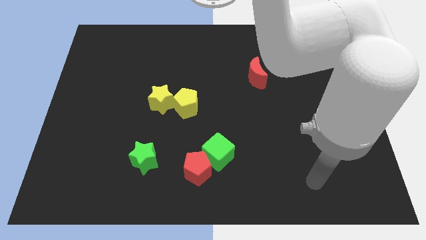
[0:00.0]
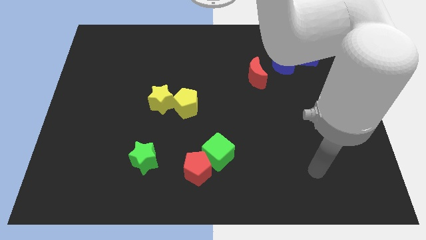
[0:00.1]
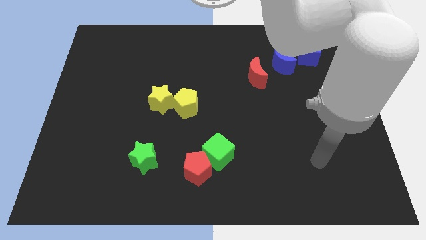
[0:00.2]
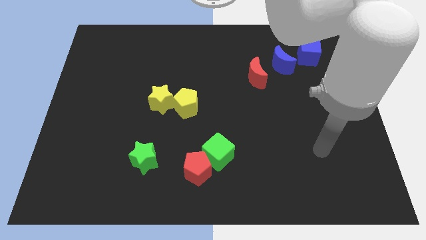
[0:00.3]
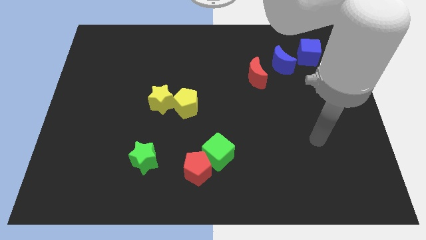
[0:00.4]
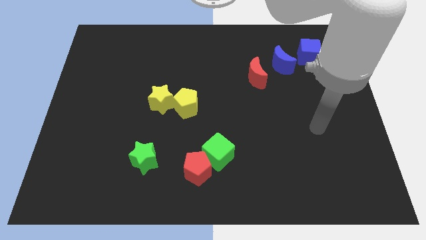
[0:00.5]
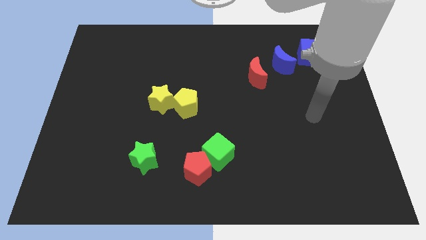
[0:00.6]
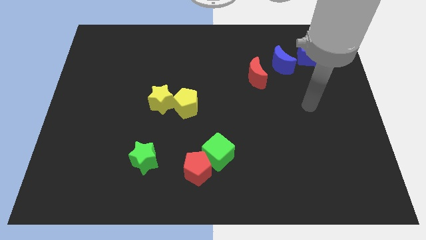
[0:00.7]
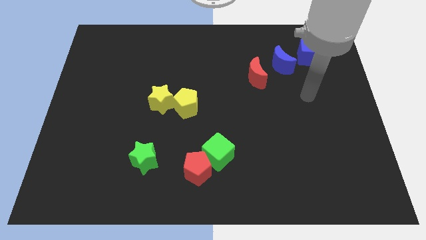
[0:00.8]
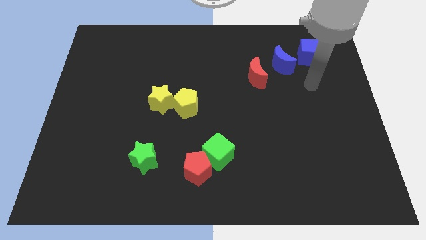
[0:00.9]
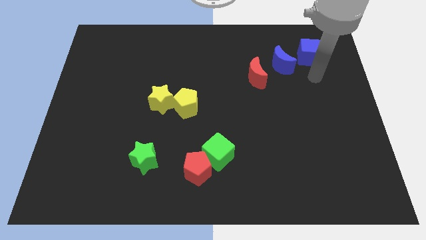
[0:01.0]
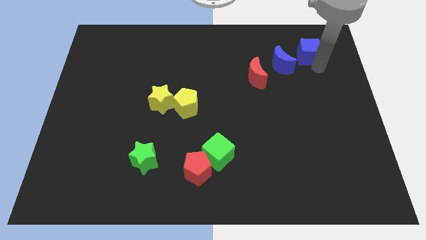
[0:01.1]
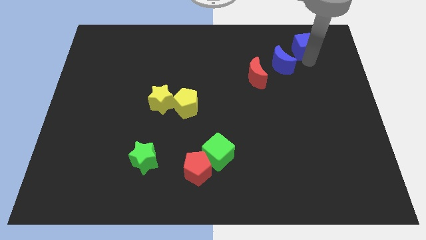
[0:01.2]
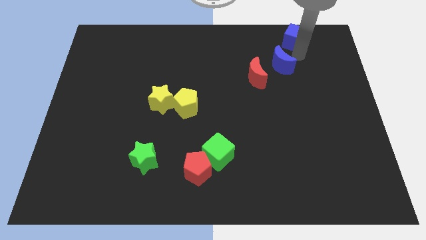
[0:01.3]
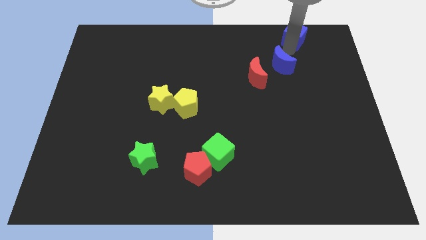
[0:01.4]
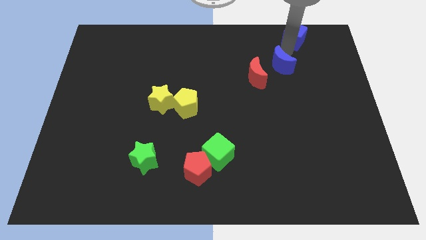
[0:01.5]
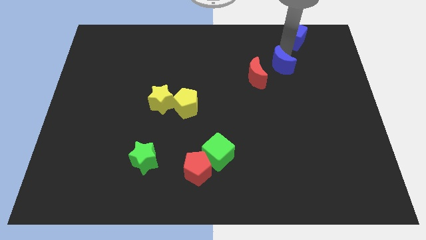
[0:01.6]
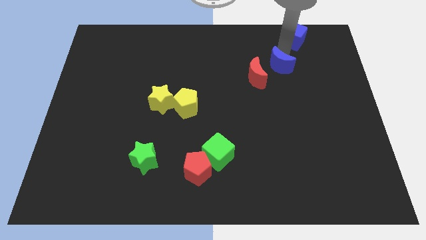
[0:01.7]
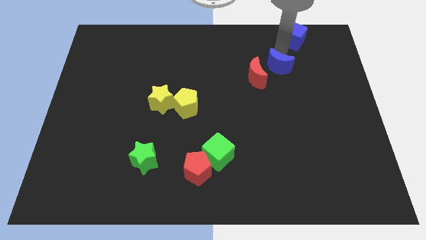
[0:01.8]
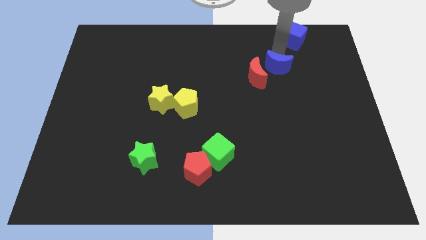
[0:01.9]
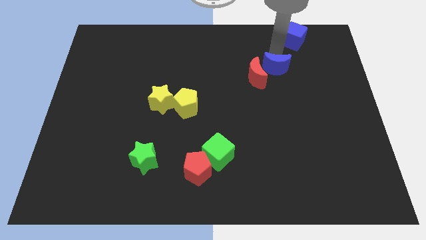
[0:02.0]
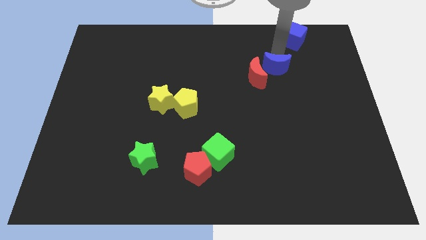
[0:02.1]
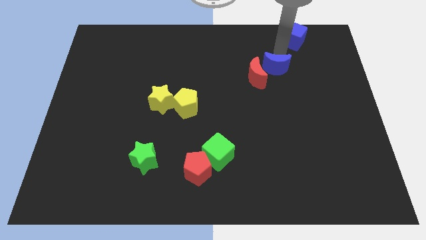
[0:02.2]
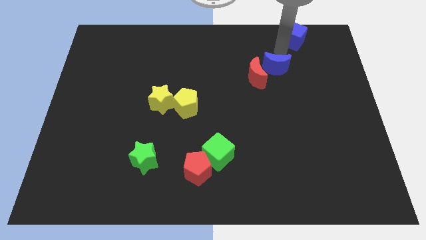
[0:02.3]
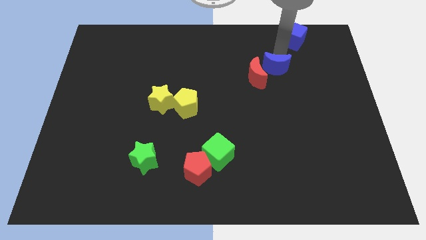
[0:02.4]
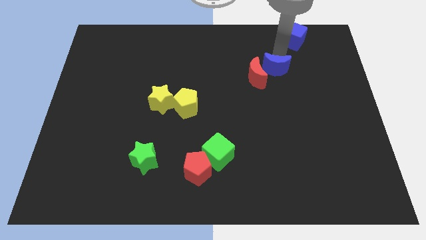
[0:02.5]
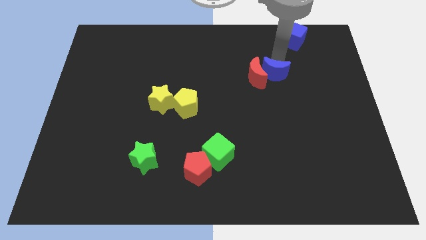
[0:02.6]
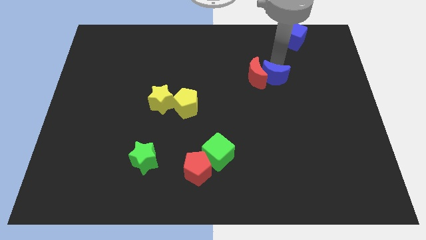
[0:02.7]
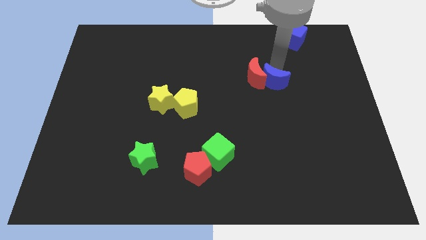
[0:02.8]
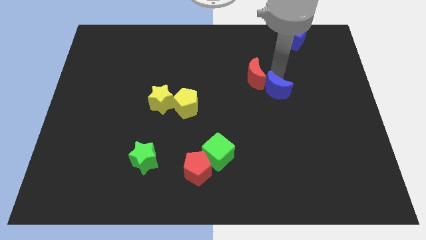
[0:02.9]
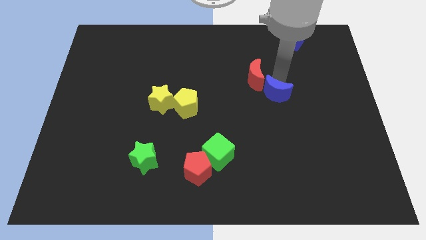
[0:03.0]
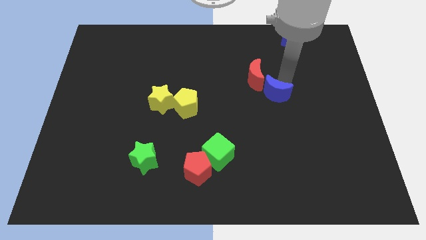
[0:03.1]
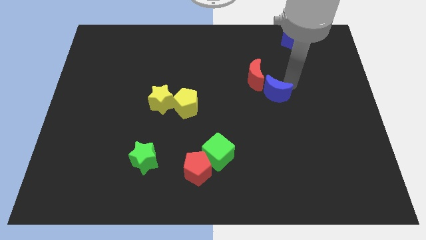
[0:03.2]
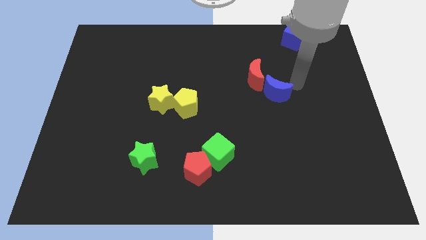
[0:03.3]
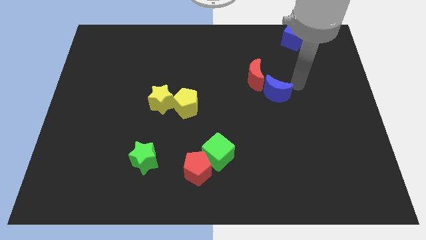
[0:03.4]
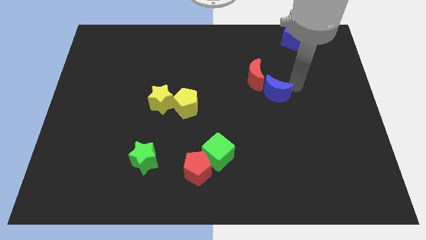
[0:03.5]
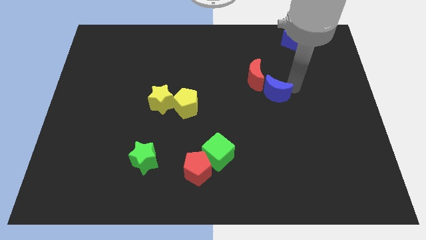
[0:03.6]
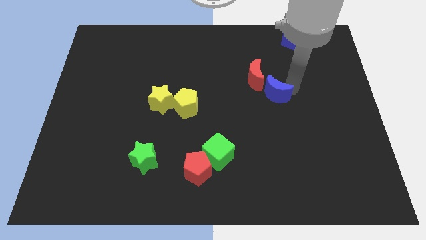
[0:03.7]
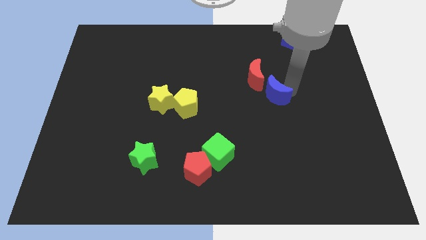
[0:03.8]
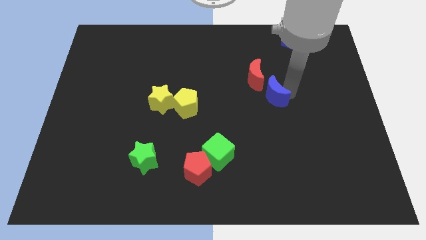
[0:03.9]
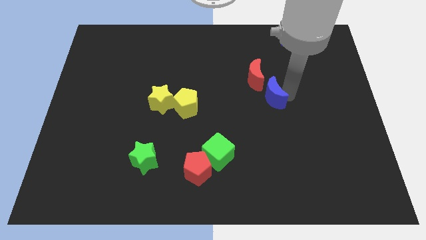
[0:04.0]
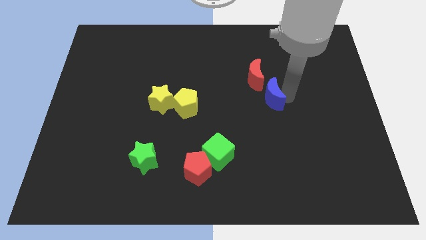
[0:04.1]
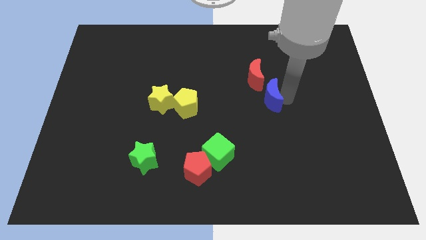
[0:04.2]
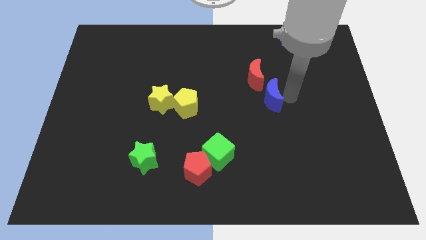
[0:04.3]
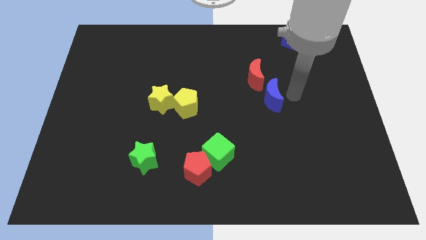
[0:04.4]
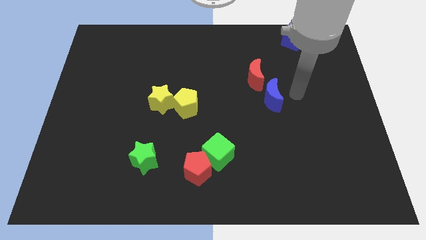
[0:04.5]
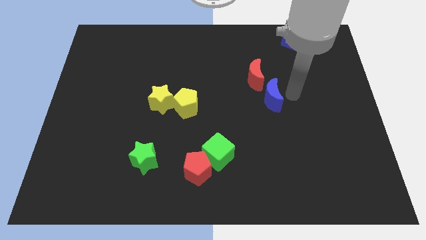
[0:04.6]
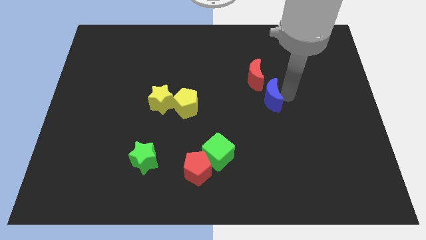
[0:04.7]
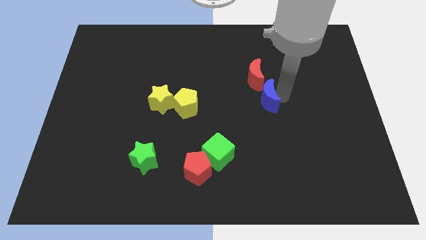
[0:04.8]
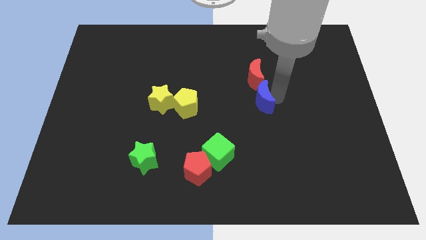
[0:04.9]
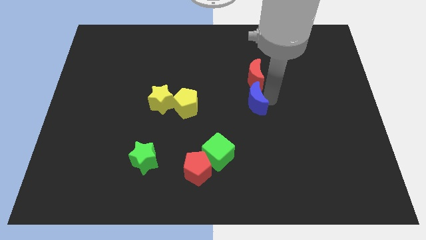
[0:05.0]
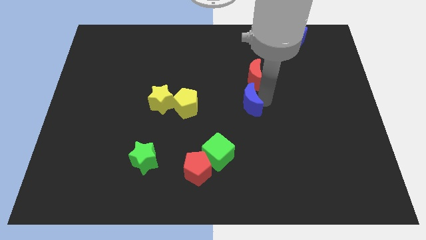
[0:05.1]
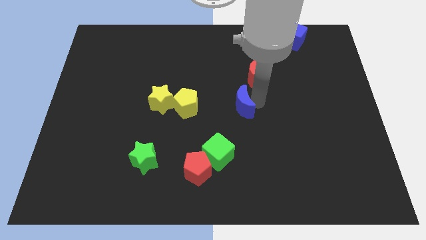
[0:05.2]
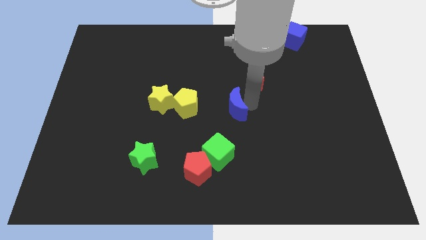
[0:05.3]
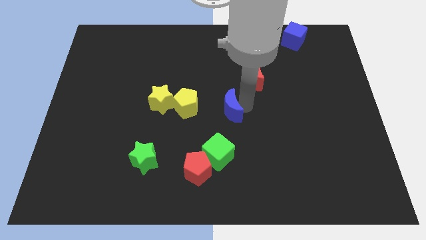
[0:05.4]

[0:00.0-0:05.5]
move the blue moon downwards and left

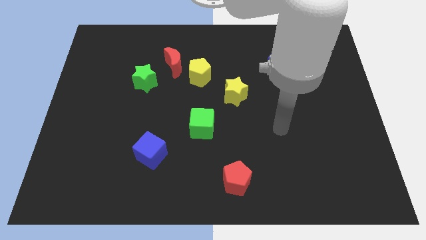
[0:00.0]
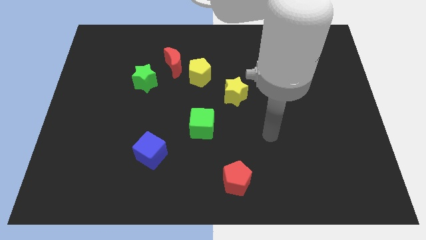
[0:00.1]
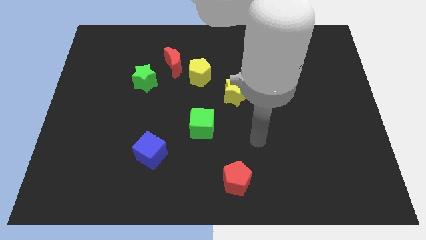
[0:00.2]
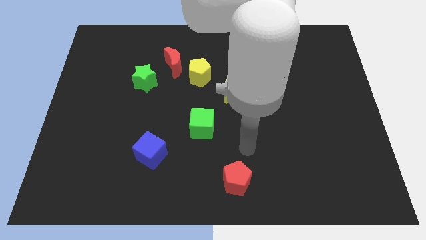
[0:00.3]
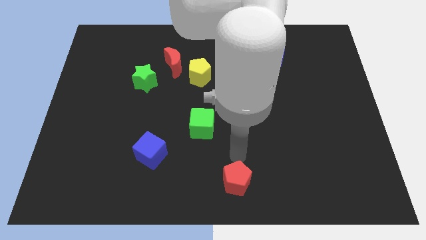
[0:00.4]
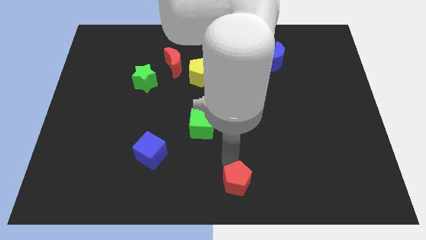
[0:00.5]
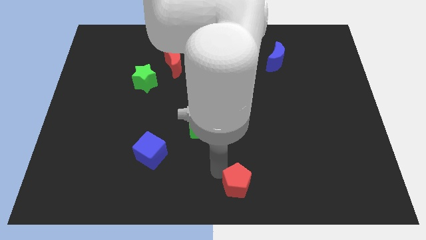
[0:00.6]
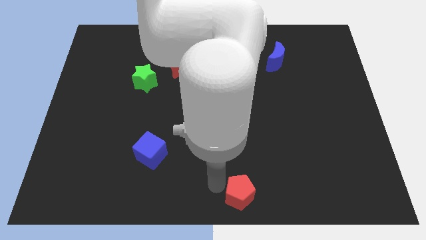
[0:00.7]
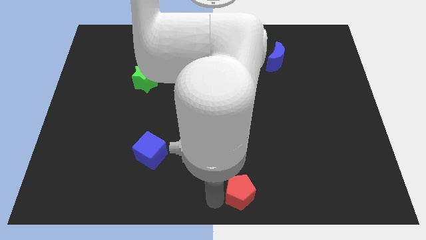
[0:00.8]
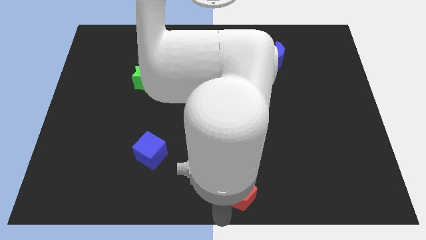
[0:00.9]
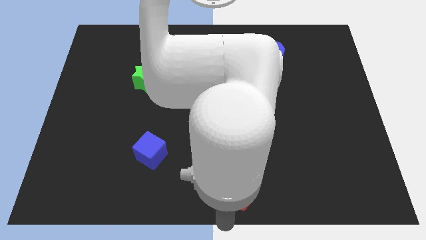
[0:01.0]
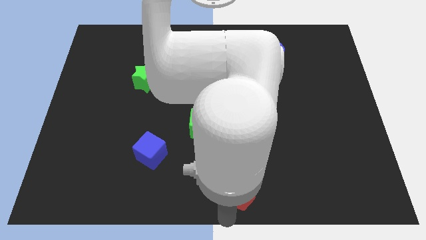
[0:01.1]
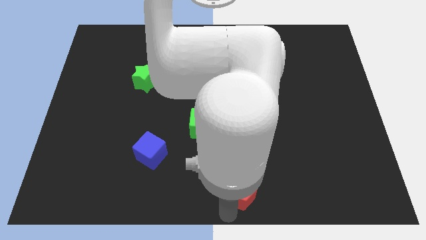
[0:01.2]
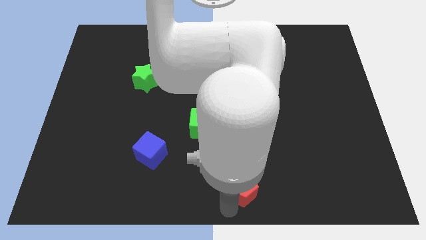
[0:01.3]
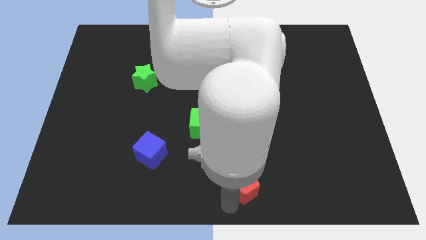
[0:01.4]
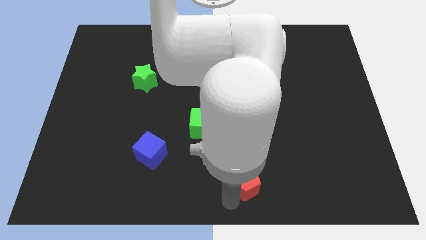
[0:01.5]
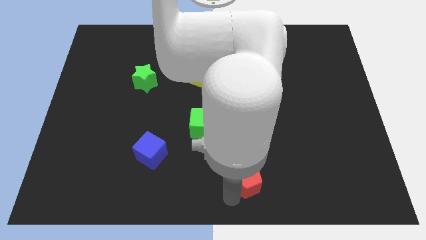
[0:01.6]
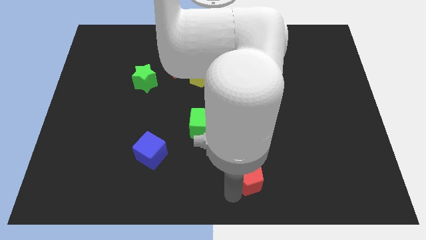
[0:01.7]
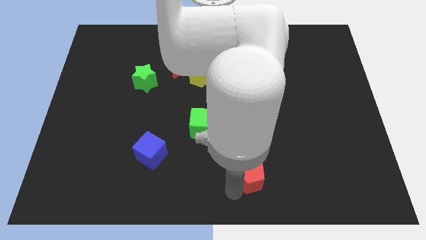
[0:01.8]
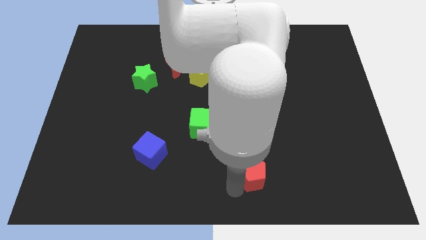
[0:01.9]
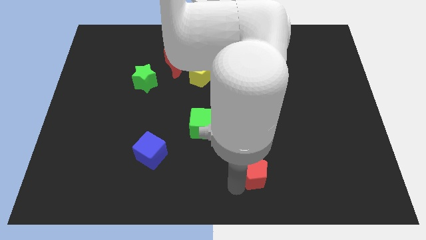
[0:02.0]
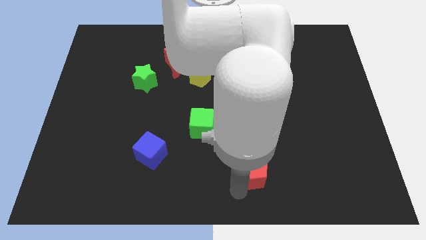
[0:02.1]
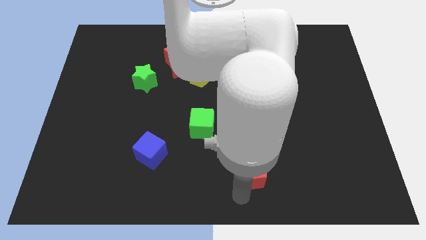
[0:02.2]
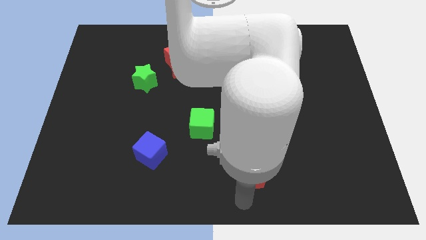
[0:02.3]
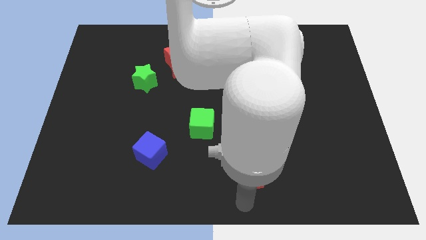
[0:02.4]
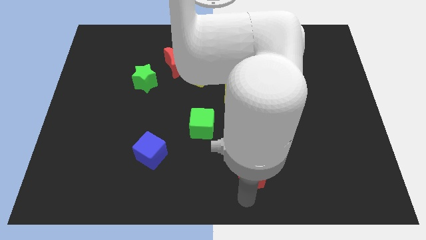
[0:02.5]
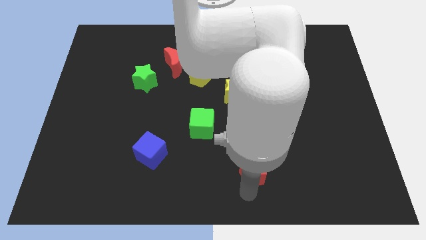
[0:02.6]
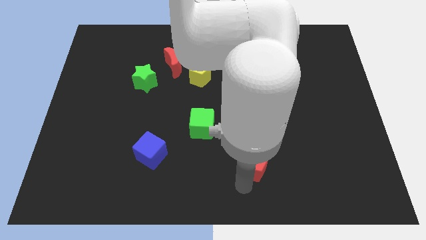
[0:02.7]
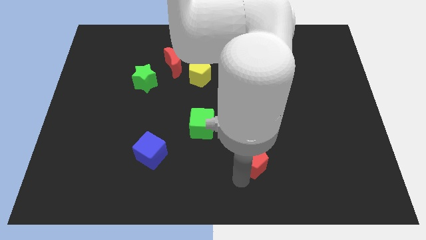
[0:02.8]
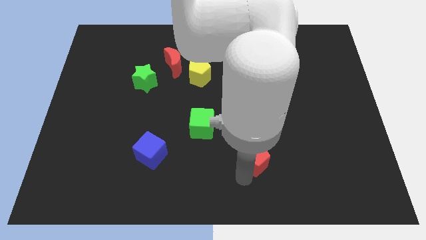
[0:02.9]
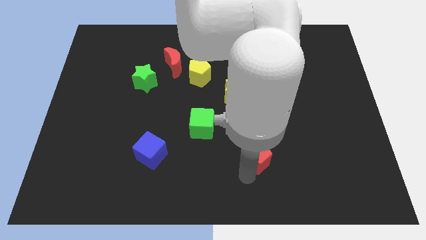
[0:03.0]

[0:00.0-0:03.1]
slide the red pentagon a little up and to the right diagonally
